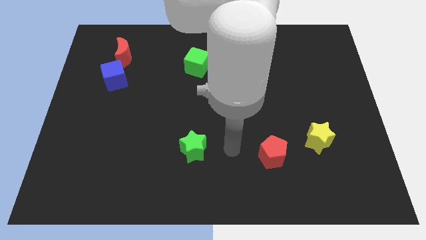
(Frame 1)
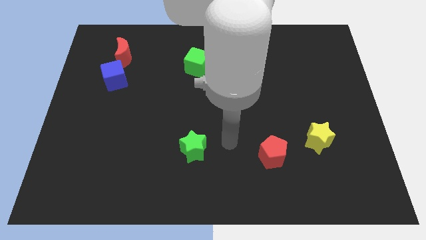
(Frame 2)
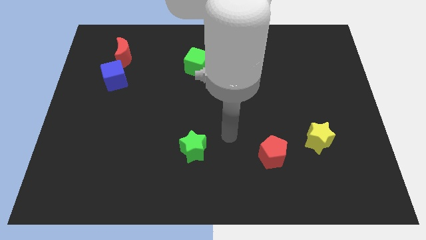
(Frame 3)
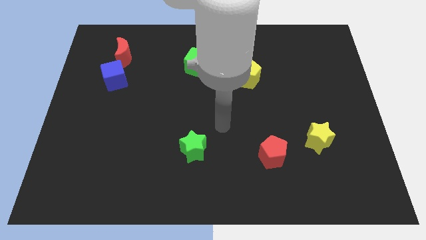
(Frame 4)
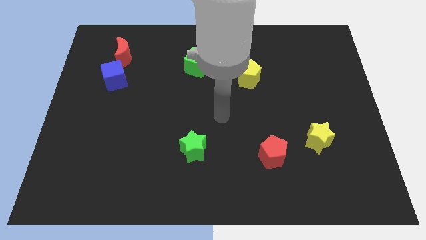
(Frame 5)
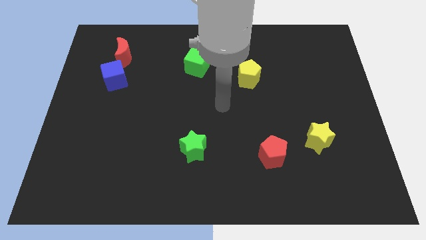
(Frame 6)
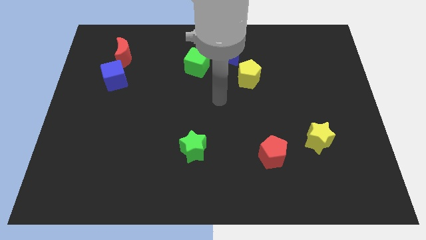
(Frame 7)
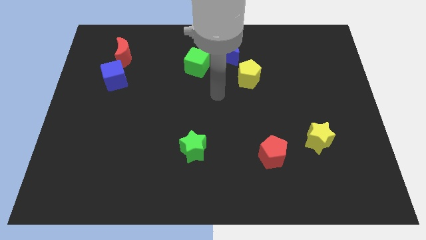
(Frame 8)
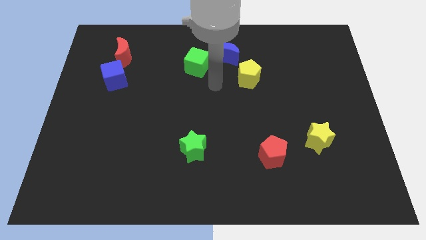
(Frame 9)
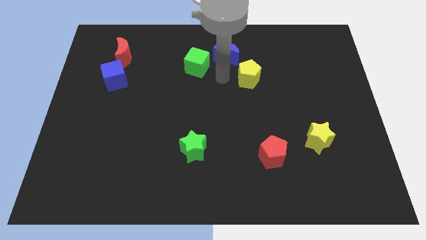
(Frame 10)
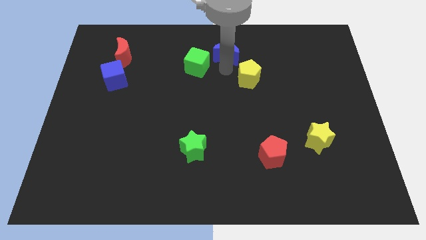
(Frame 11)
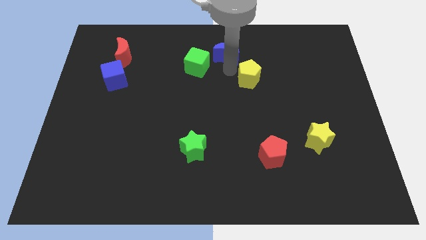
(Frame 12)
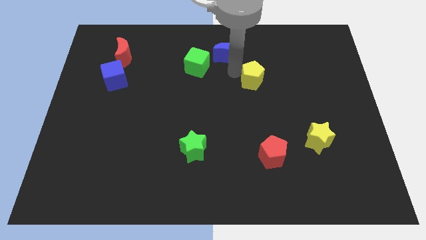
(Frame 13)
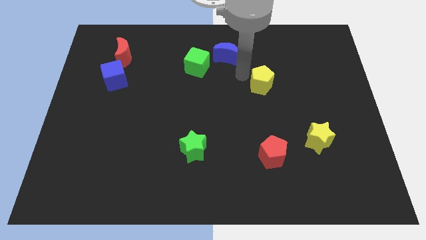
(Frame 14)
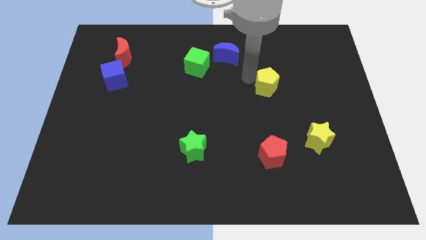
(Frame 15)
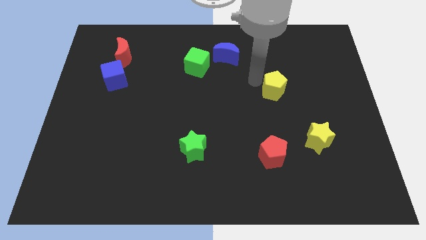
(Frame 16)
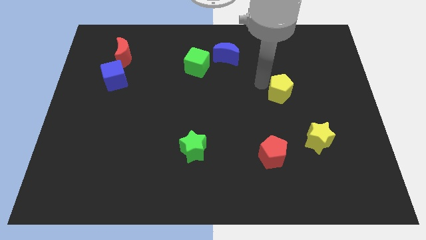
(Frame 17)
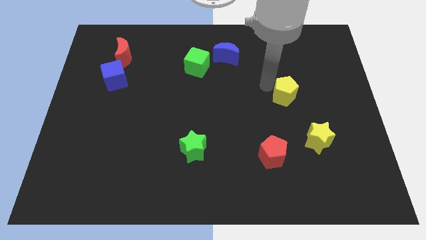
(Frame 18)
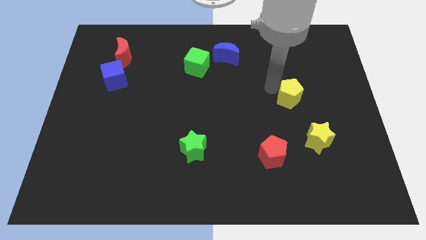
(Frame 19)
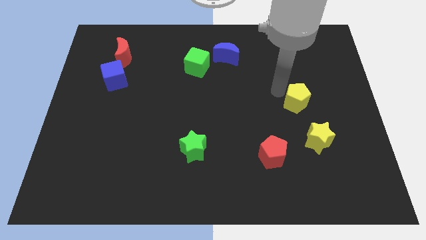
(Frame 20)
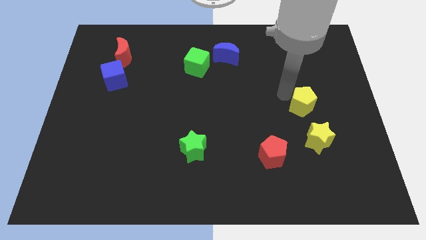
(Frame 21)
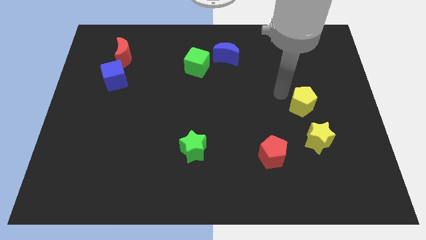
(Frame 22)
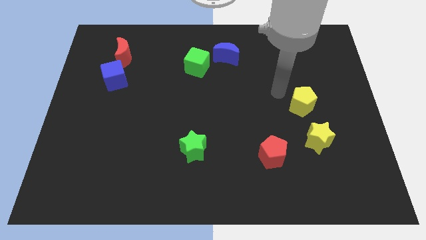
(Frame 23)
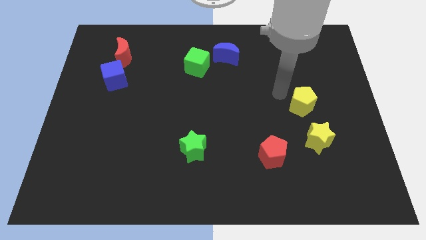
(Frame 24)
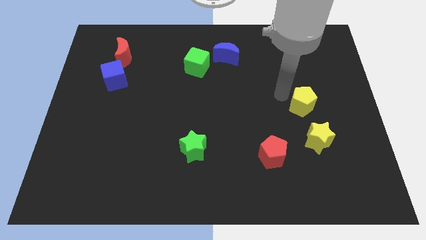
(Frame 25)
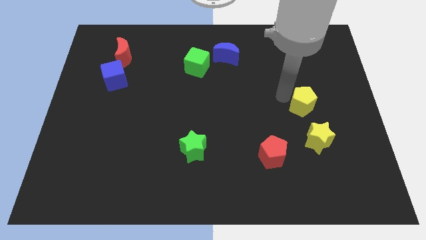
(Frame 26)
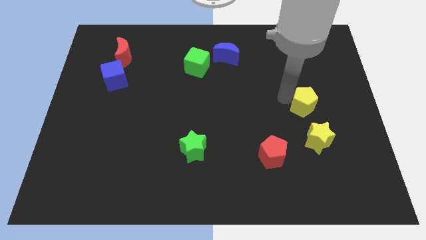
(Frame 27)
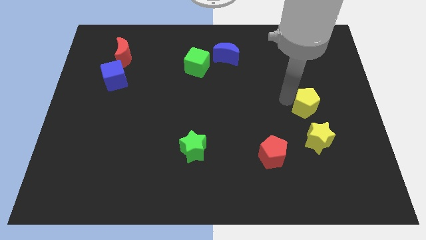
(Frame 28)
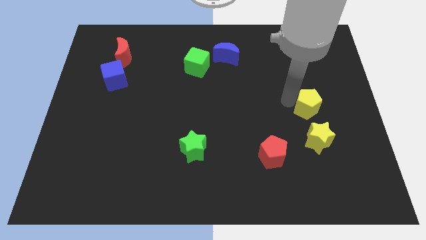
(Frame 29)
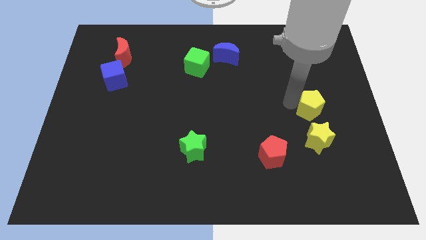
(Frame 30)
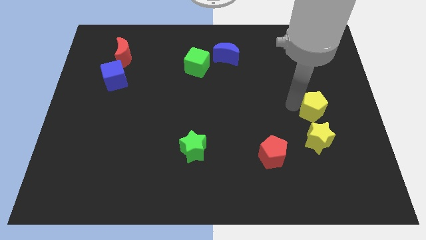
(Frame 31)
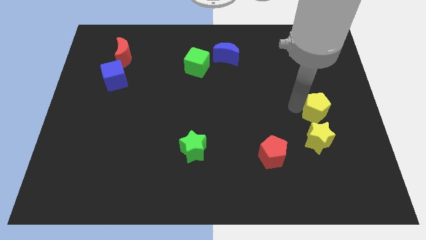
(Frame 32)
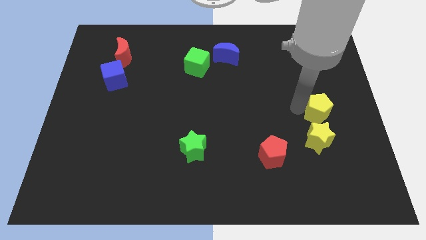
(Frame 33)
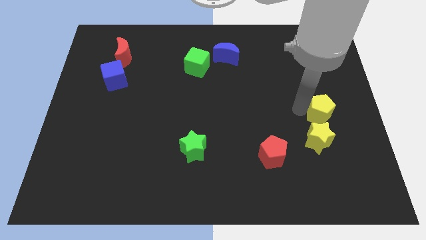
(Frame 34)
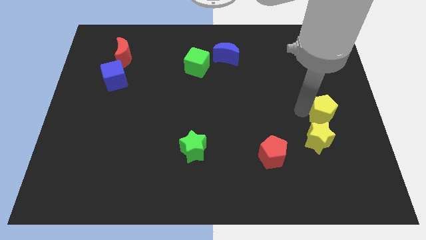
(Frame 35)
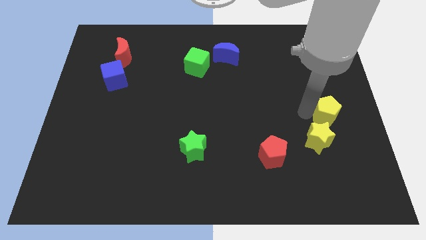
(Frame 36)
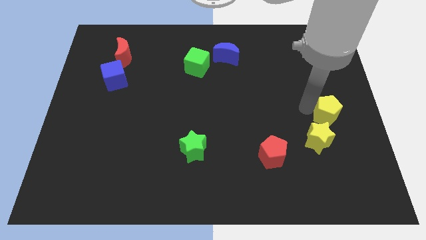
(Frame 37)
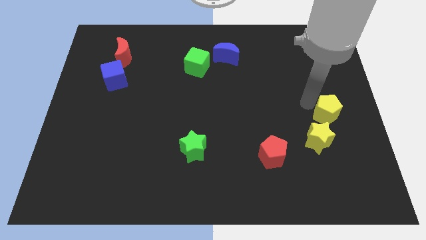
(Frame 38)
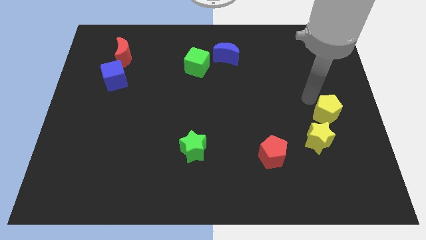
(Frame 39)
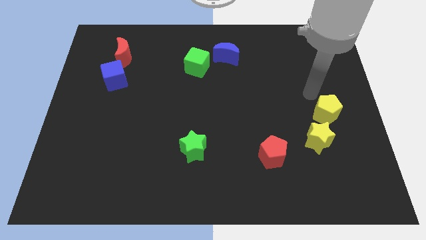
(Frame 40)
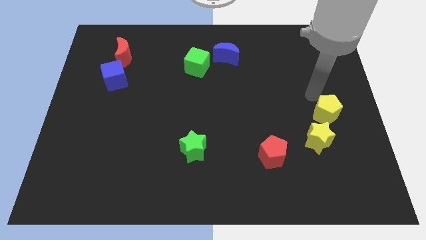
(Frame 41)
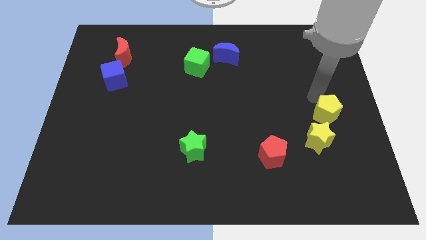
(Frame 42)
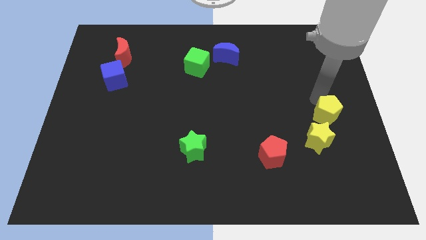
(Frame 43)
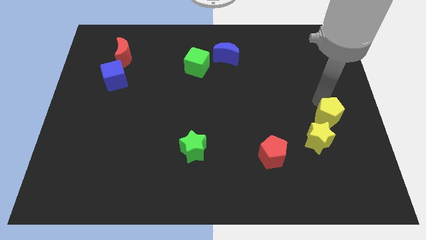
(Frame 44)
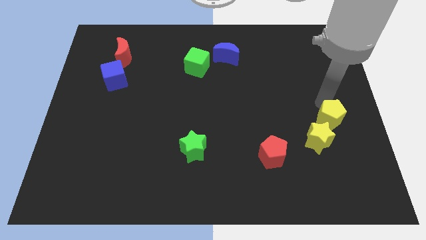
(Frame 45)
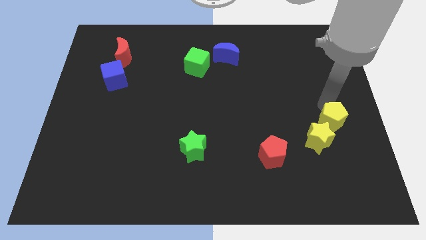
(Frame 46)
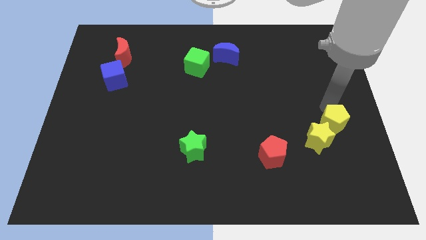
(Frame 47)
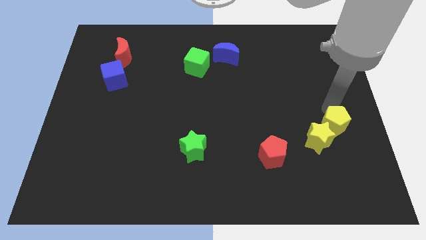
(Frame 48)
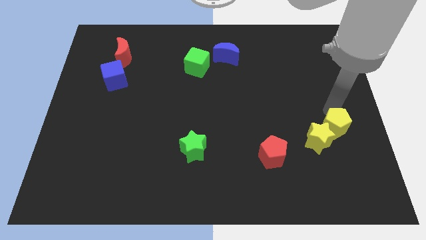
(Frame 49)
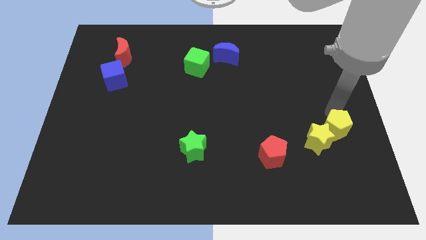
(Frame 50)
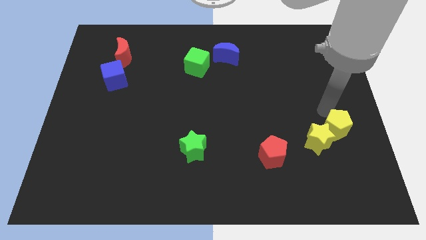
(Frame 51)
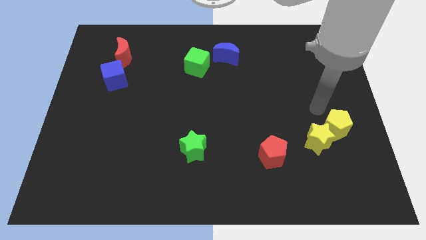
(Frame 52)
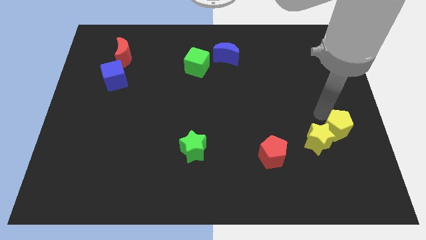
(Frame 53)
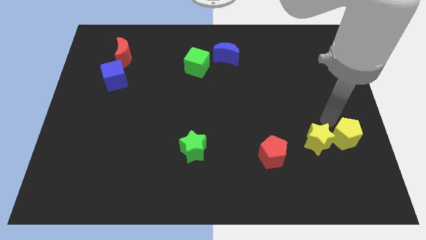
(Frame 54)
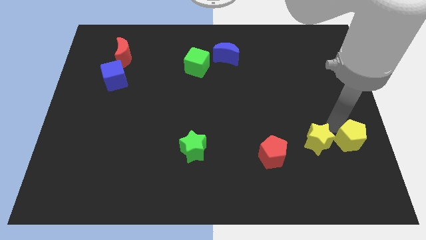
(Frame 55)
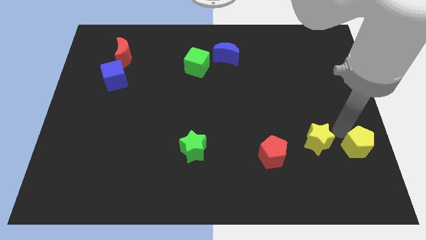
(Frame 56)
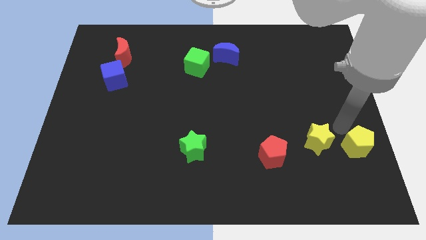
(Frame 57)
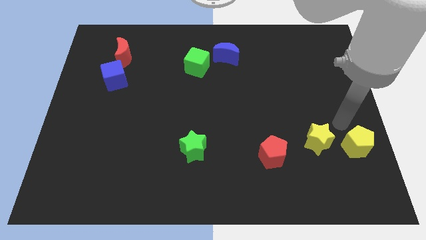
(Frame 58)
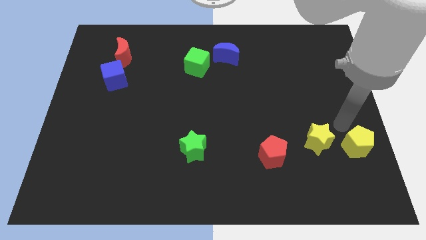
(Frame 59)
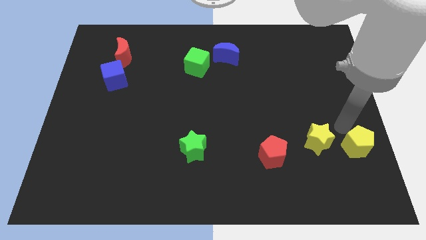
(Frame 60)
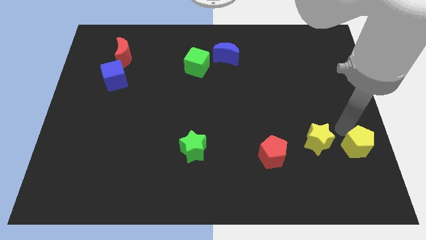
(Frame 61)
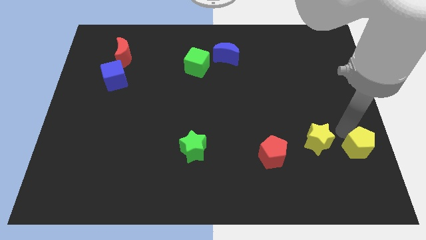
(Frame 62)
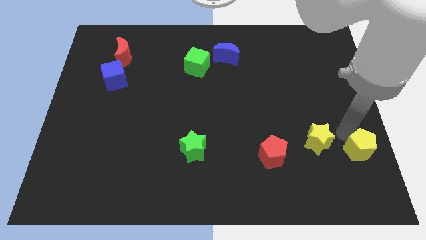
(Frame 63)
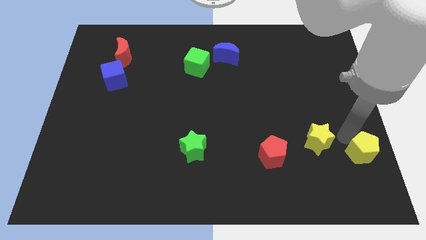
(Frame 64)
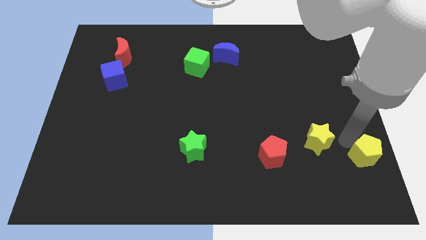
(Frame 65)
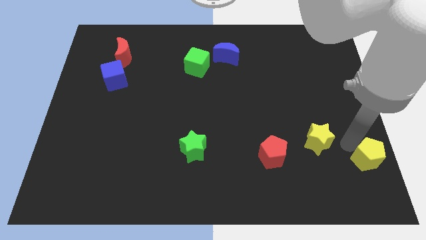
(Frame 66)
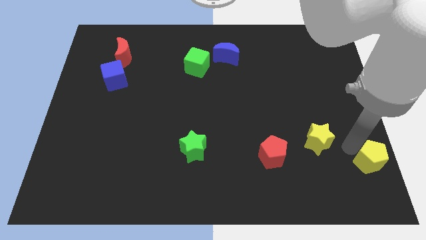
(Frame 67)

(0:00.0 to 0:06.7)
slide the yellow pentagon to the bottom right of the board

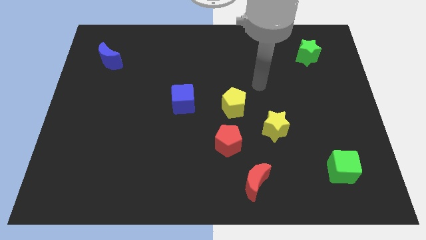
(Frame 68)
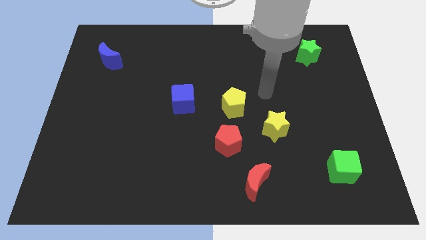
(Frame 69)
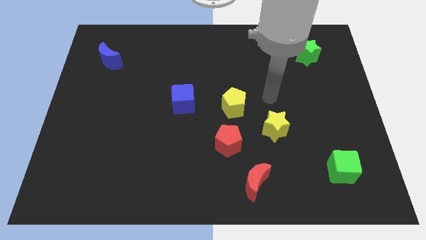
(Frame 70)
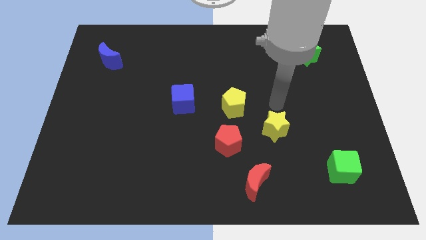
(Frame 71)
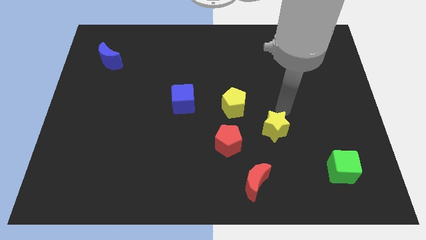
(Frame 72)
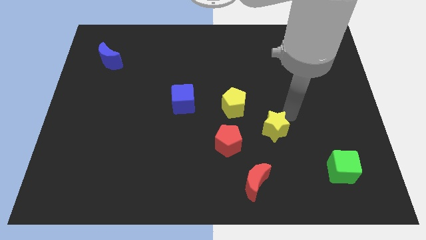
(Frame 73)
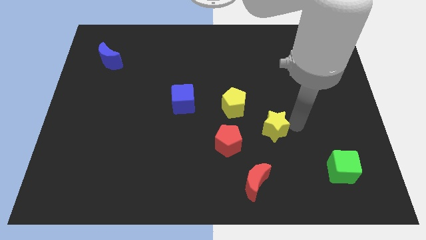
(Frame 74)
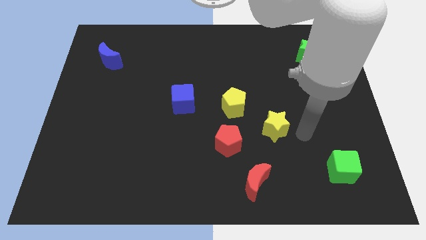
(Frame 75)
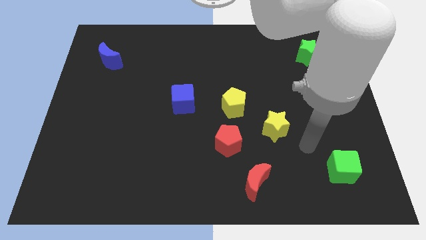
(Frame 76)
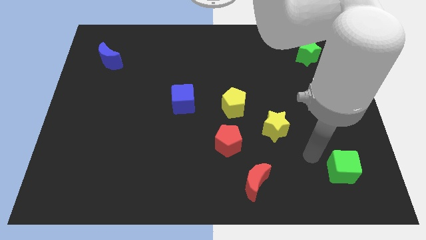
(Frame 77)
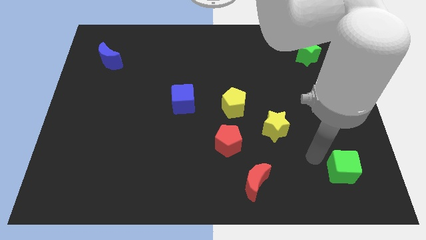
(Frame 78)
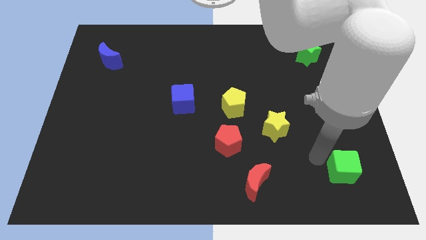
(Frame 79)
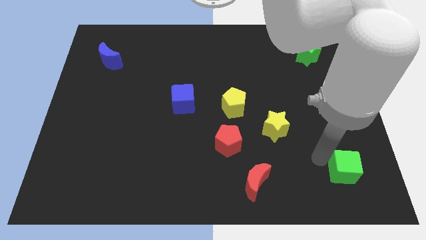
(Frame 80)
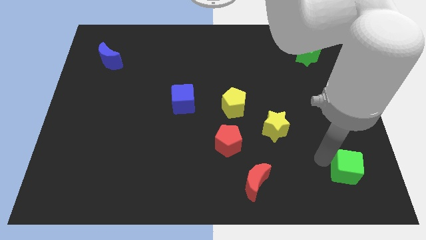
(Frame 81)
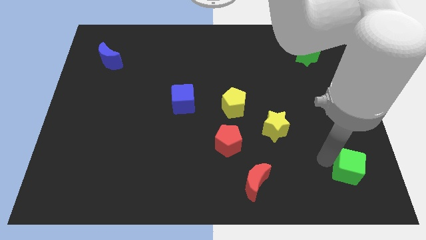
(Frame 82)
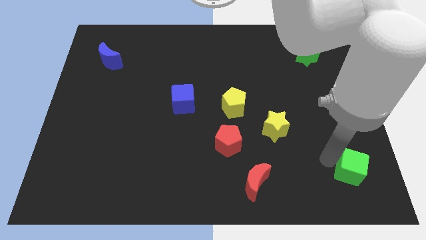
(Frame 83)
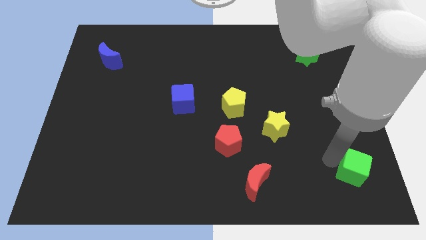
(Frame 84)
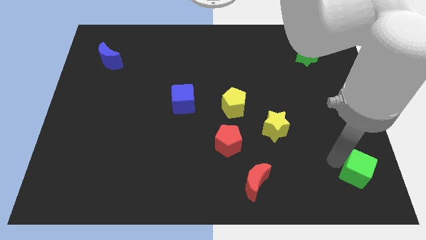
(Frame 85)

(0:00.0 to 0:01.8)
move the green cube to the bottom right of the board
